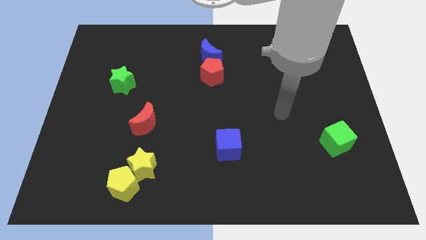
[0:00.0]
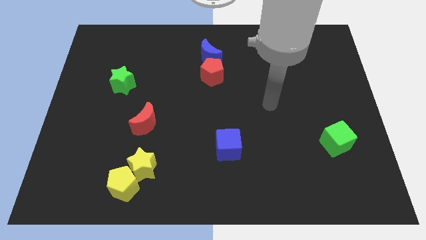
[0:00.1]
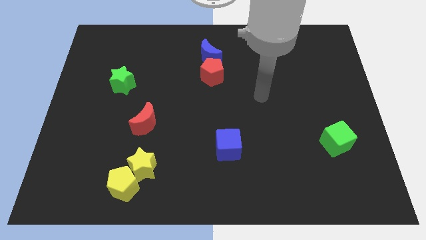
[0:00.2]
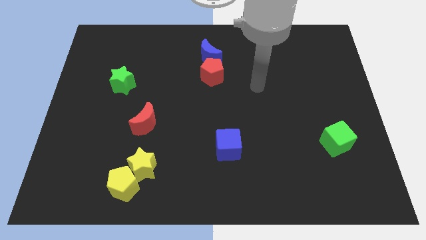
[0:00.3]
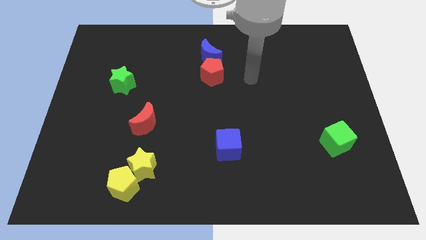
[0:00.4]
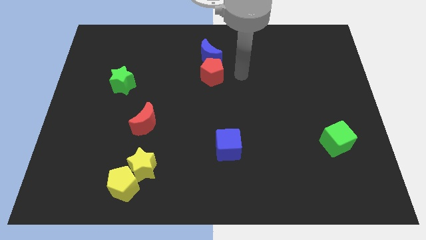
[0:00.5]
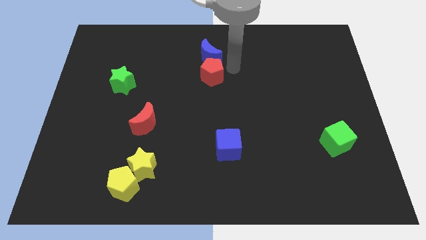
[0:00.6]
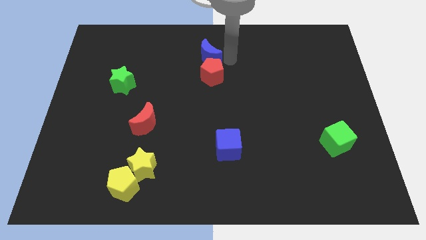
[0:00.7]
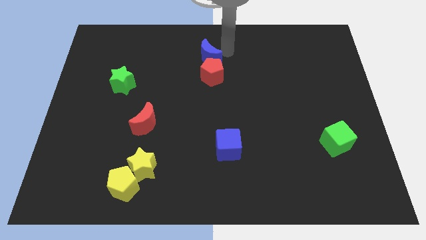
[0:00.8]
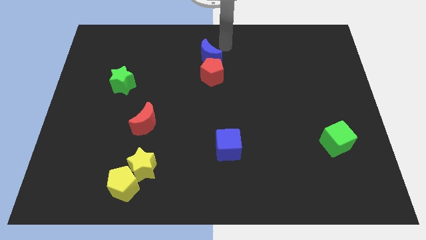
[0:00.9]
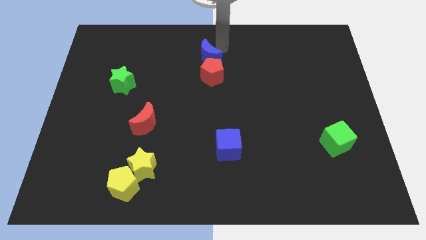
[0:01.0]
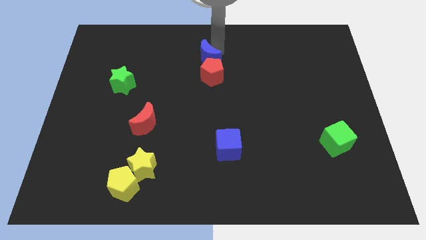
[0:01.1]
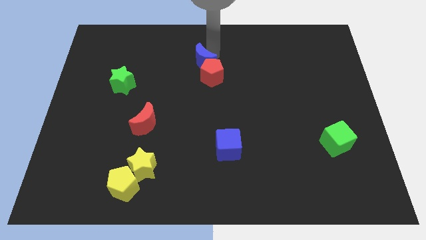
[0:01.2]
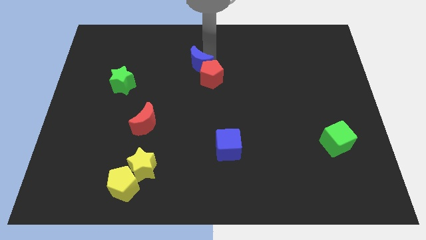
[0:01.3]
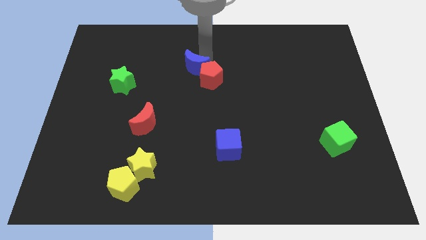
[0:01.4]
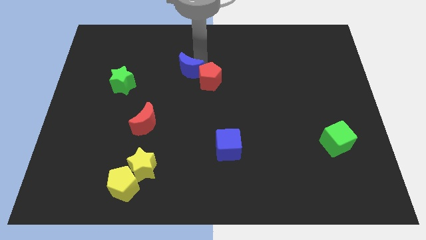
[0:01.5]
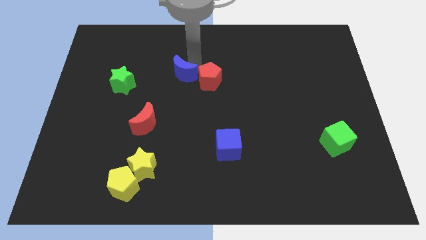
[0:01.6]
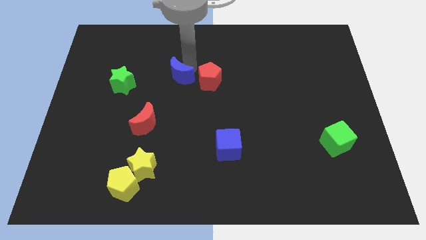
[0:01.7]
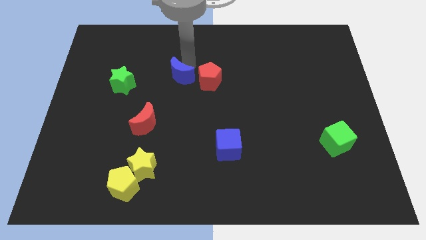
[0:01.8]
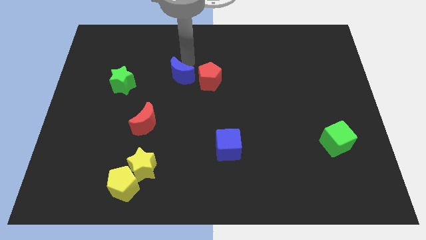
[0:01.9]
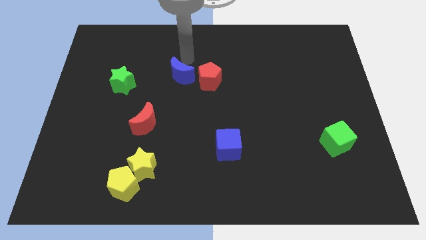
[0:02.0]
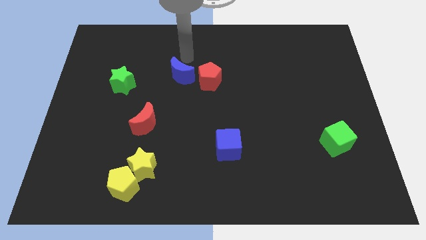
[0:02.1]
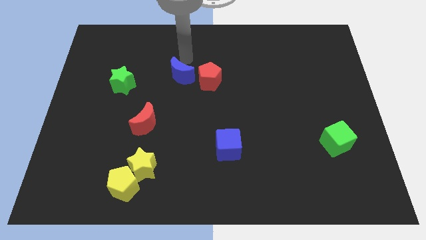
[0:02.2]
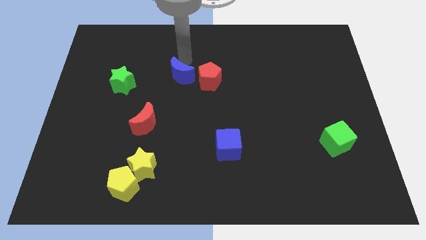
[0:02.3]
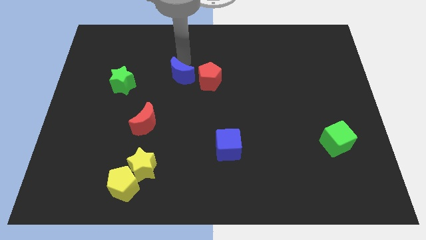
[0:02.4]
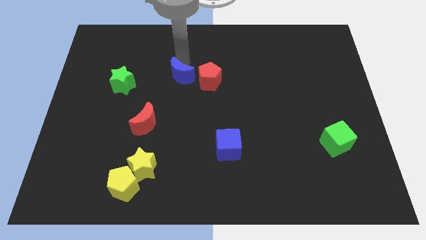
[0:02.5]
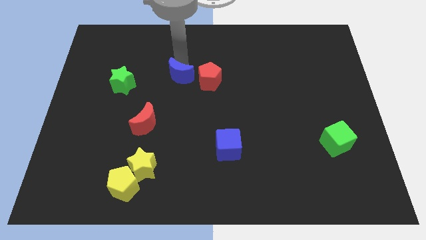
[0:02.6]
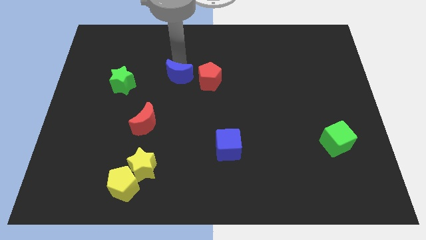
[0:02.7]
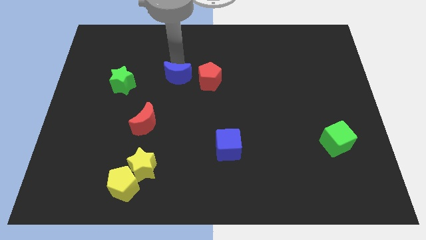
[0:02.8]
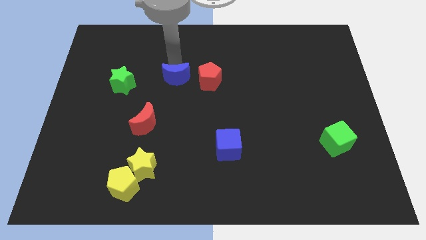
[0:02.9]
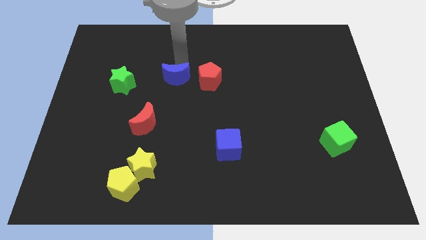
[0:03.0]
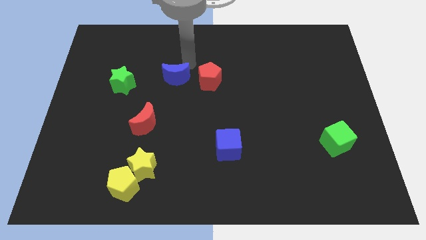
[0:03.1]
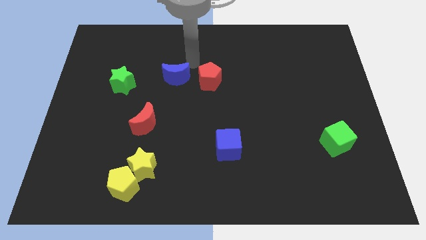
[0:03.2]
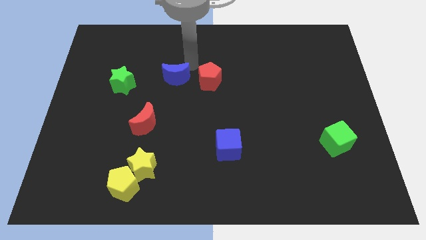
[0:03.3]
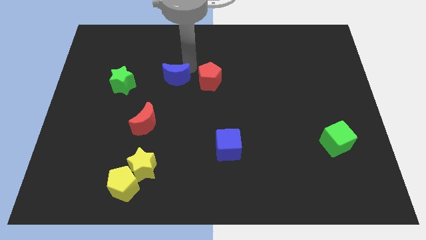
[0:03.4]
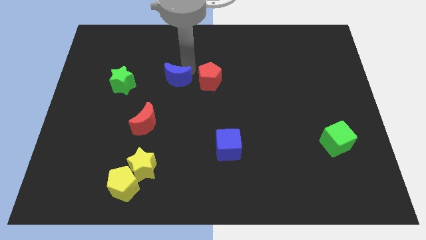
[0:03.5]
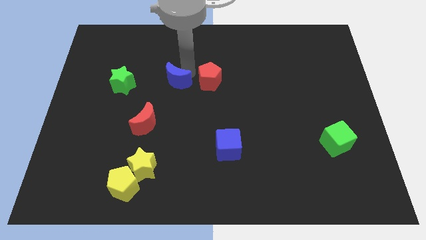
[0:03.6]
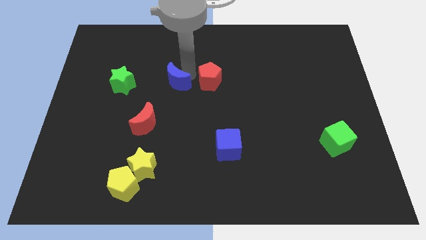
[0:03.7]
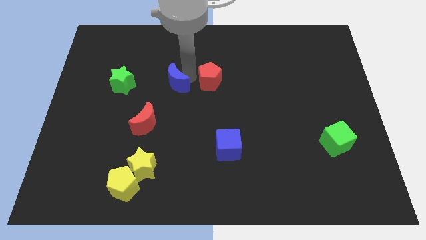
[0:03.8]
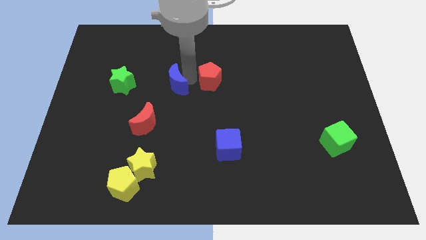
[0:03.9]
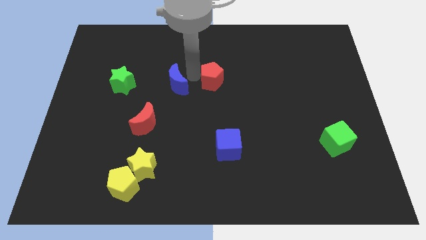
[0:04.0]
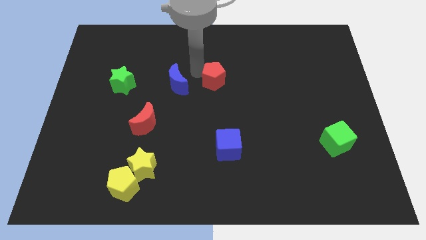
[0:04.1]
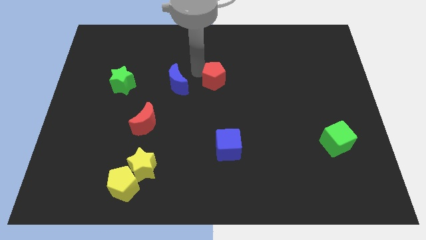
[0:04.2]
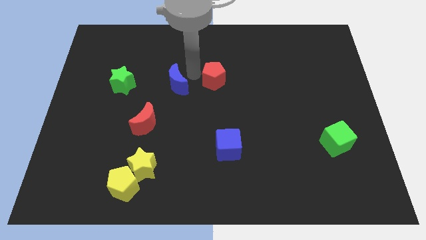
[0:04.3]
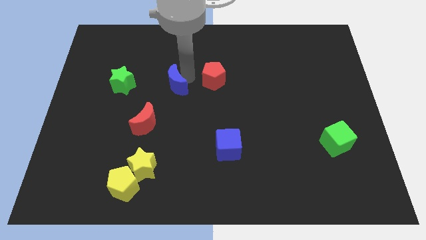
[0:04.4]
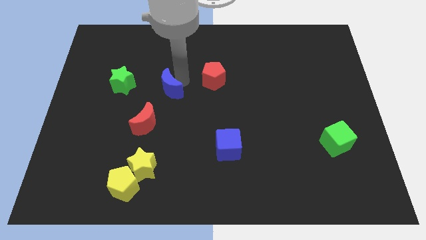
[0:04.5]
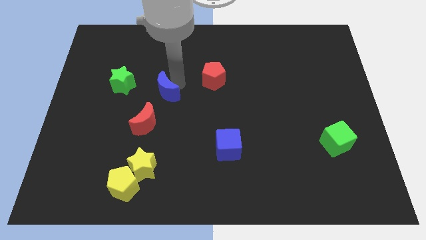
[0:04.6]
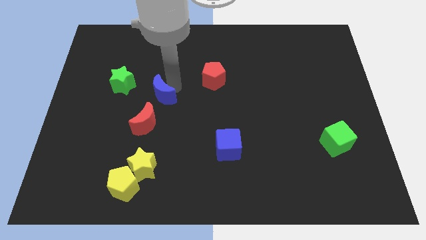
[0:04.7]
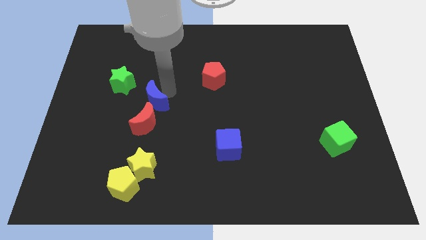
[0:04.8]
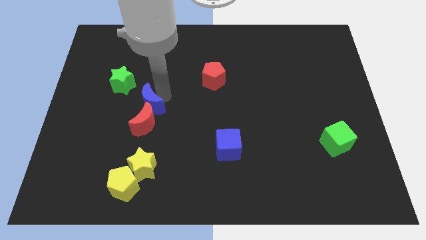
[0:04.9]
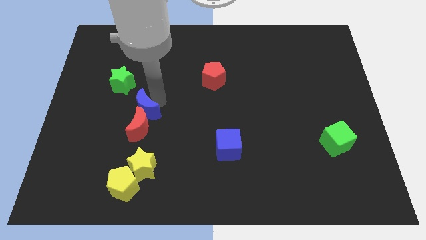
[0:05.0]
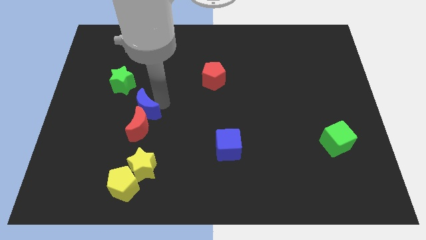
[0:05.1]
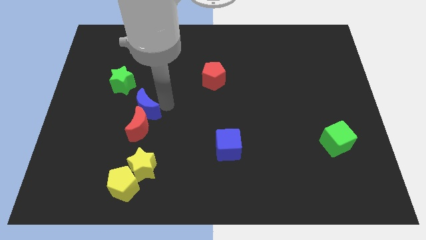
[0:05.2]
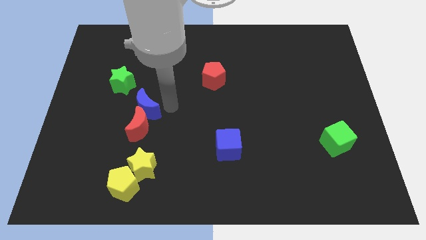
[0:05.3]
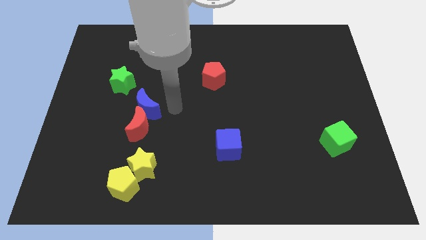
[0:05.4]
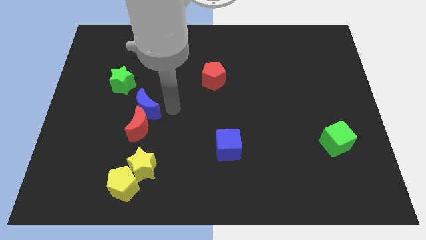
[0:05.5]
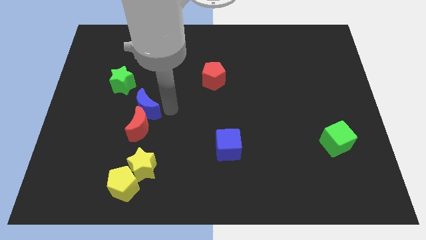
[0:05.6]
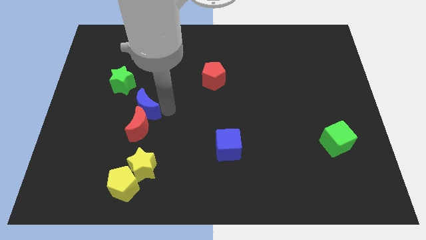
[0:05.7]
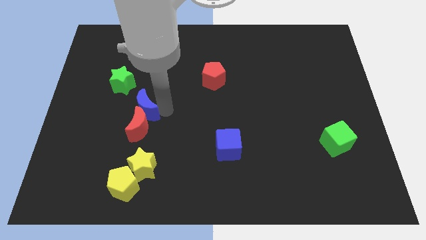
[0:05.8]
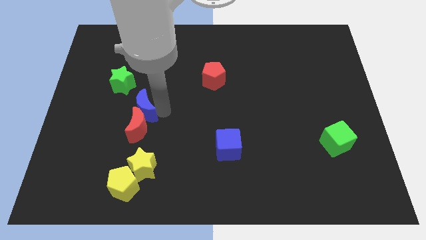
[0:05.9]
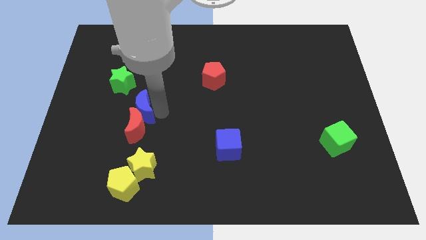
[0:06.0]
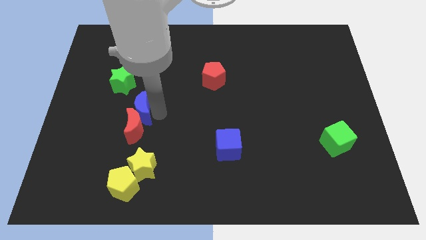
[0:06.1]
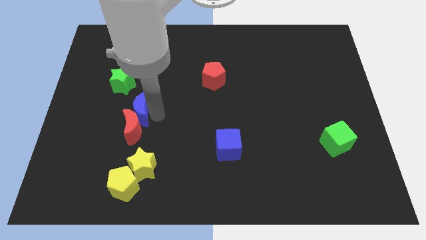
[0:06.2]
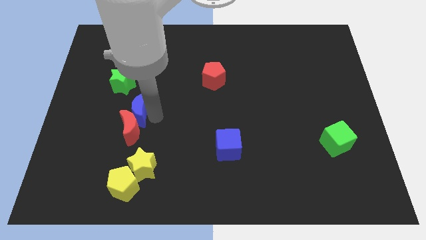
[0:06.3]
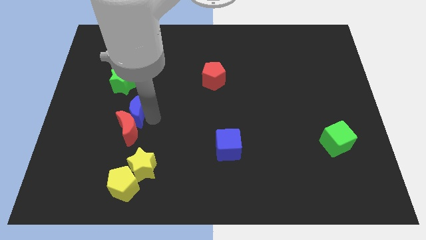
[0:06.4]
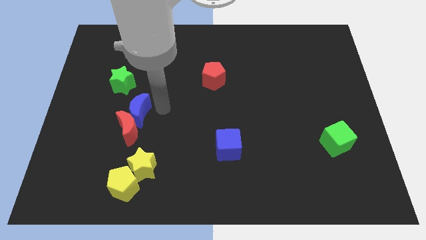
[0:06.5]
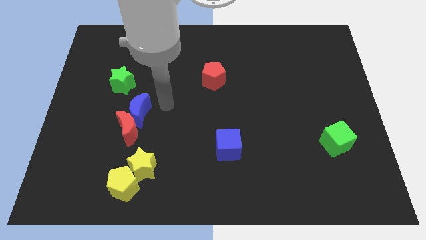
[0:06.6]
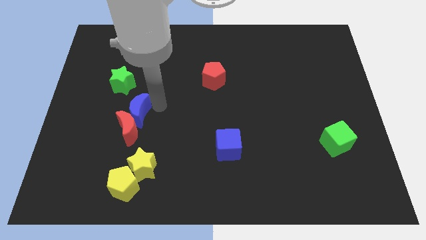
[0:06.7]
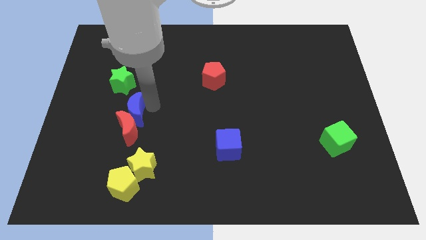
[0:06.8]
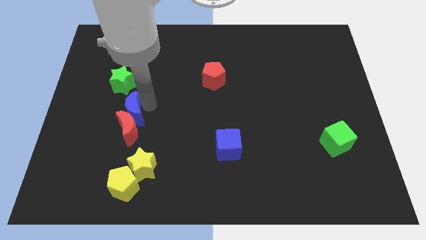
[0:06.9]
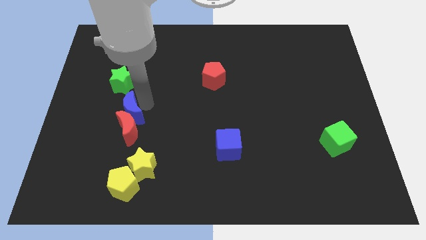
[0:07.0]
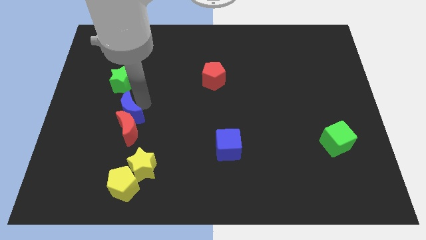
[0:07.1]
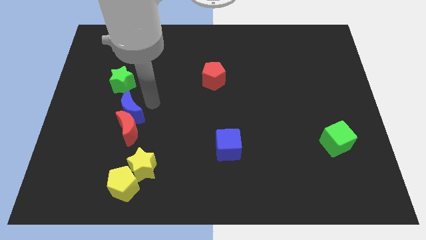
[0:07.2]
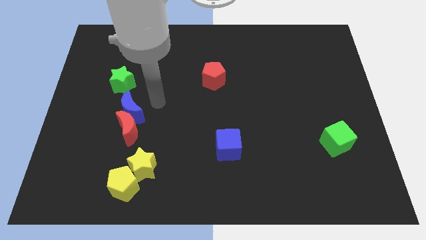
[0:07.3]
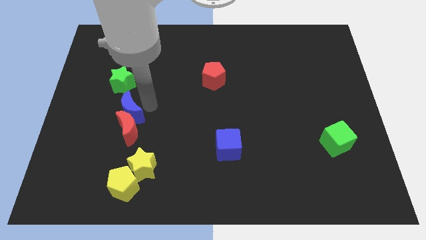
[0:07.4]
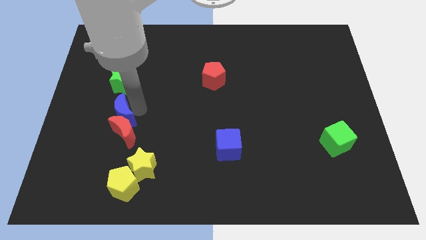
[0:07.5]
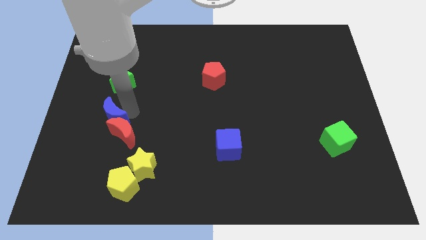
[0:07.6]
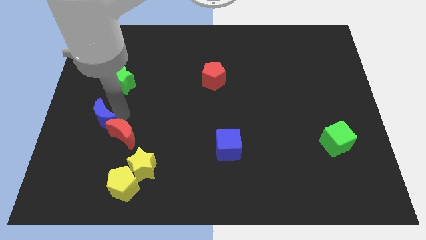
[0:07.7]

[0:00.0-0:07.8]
put the blue moon to the left of the red moon

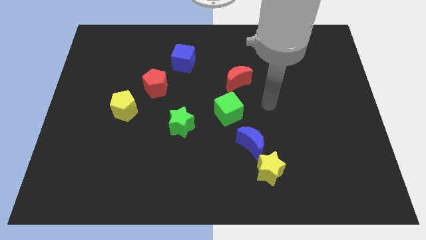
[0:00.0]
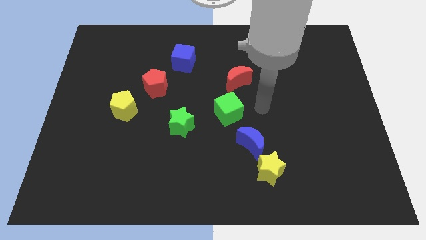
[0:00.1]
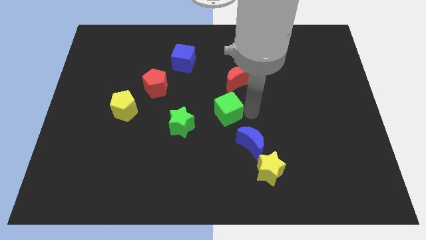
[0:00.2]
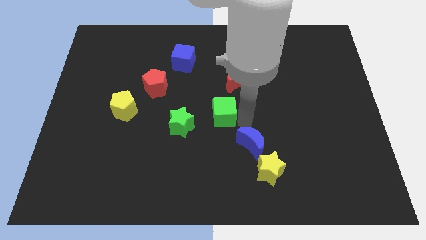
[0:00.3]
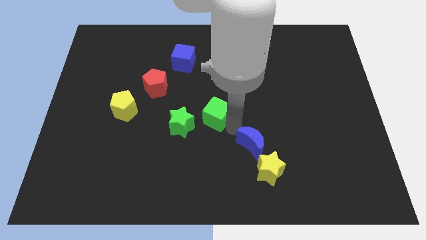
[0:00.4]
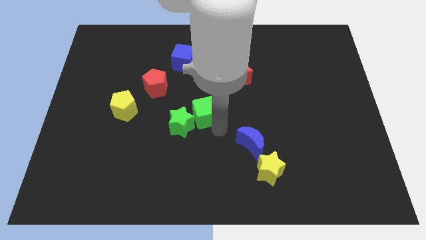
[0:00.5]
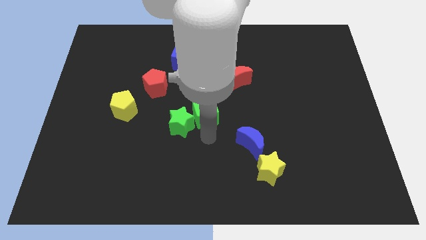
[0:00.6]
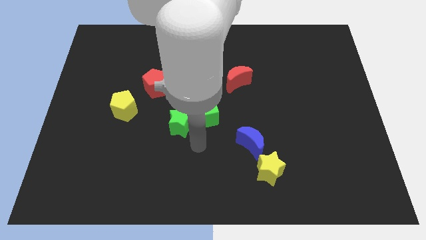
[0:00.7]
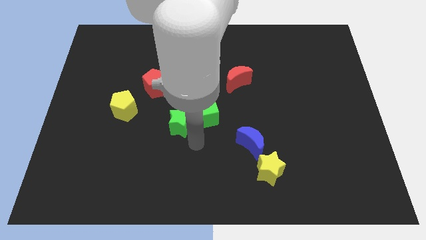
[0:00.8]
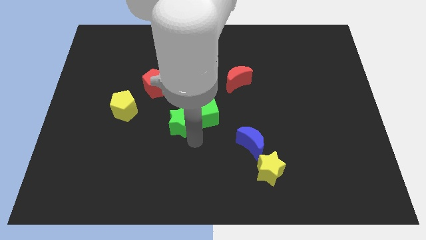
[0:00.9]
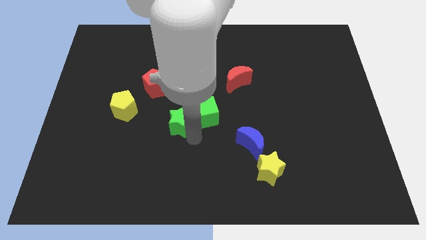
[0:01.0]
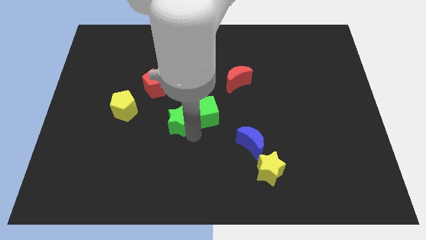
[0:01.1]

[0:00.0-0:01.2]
slide the green star to the right of the yellow pentagon
